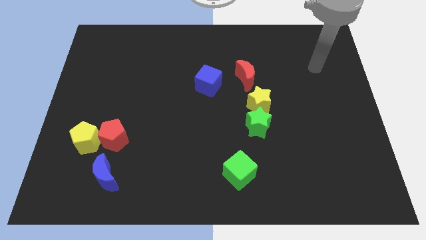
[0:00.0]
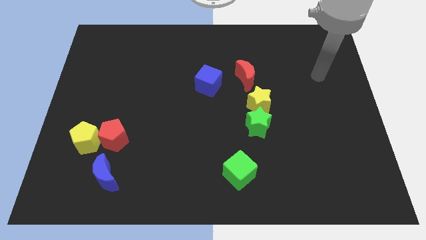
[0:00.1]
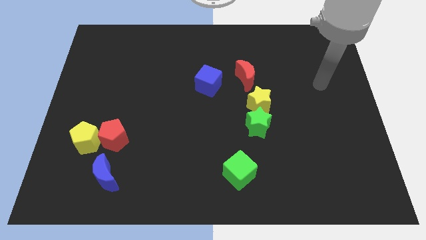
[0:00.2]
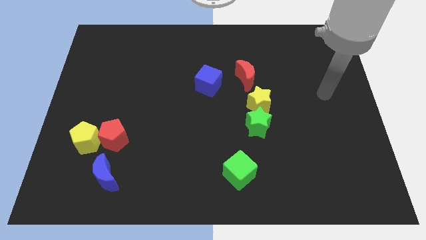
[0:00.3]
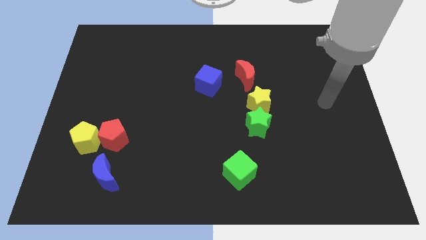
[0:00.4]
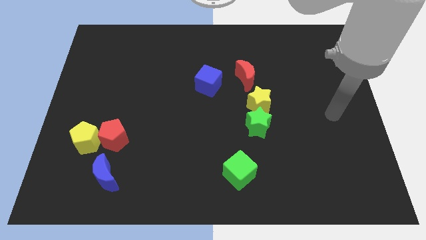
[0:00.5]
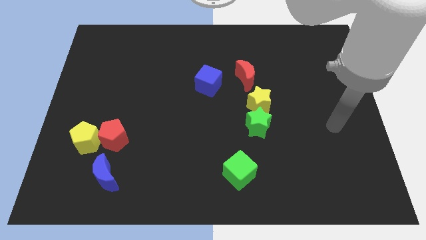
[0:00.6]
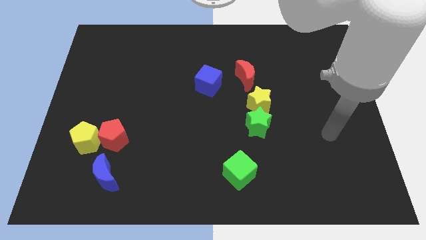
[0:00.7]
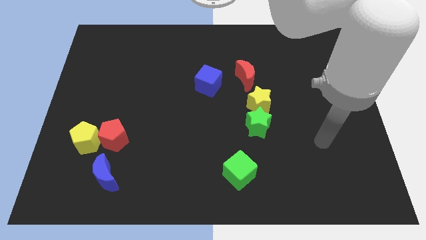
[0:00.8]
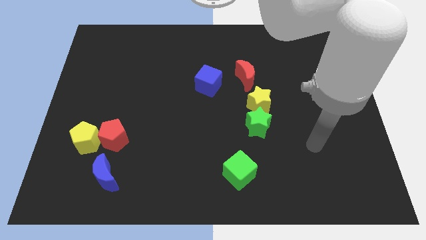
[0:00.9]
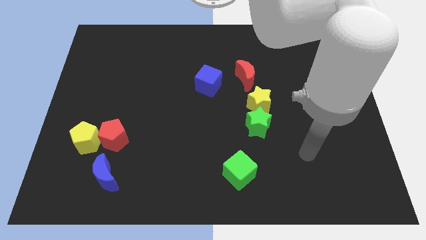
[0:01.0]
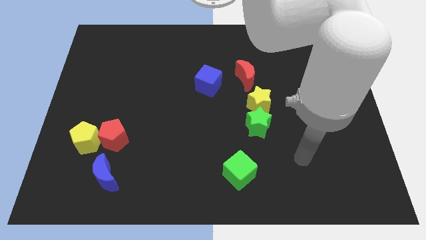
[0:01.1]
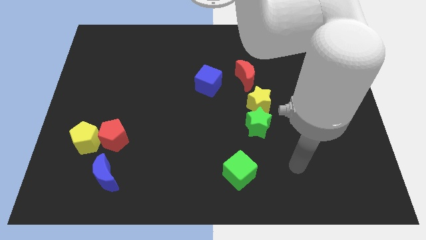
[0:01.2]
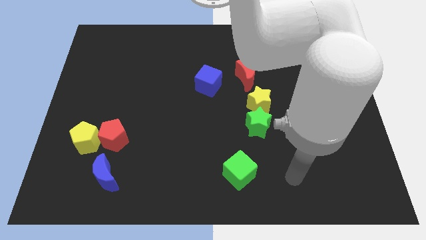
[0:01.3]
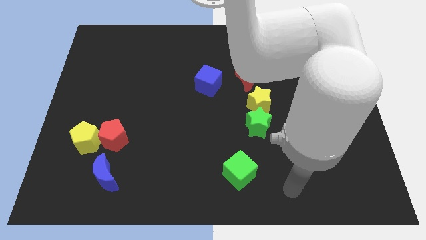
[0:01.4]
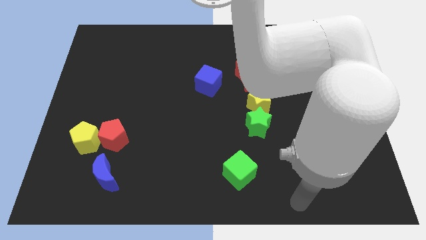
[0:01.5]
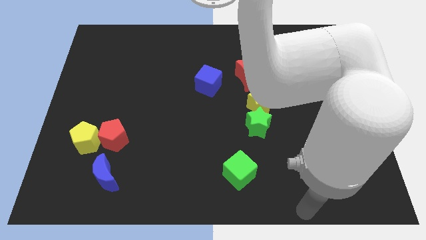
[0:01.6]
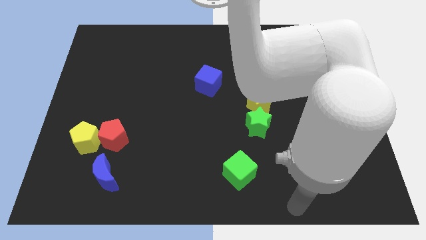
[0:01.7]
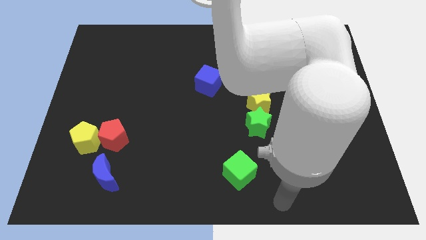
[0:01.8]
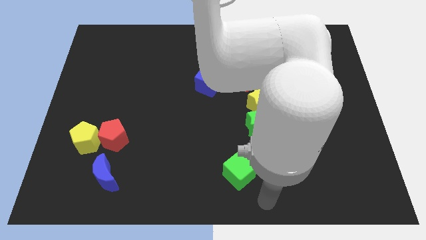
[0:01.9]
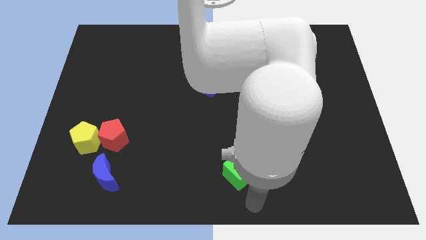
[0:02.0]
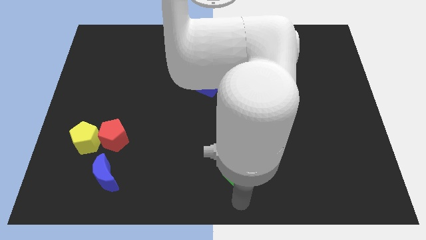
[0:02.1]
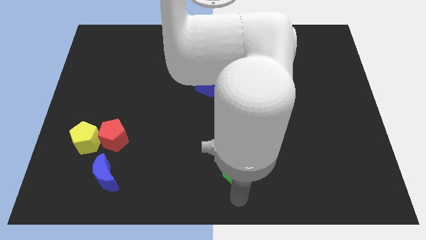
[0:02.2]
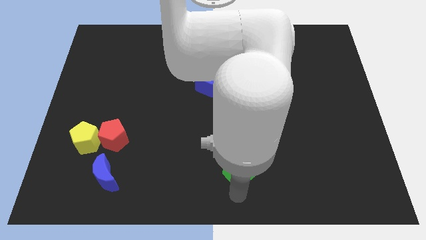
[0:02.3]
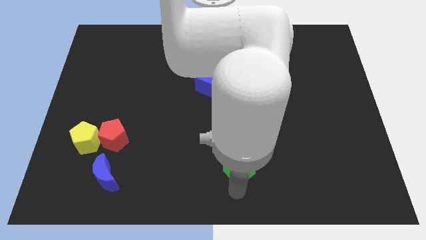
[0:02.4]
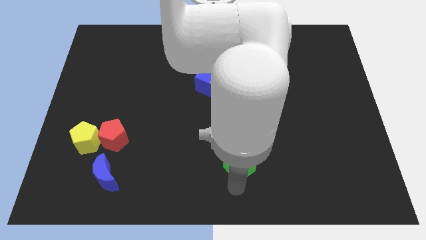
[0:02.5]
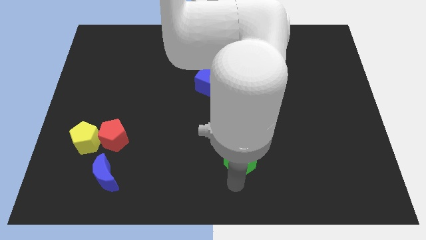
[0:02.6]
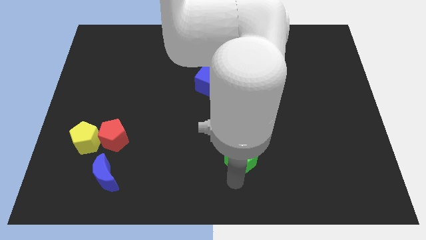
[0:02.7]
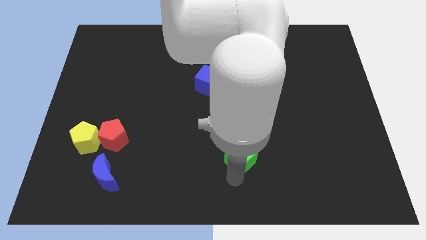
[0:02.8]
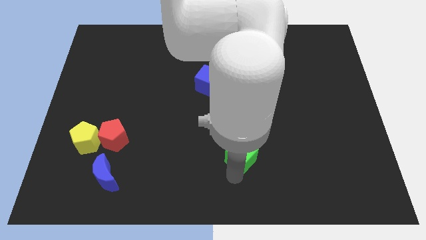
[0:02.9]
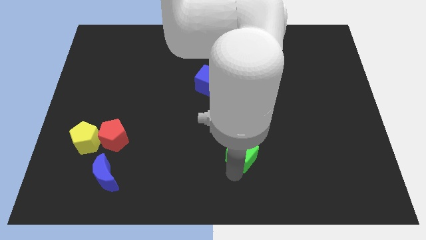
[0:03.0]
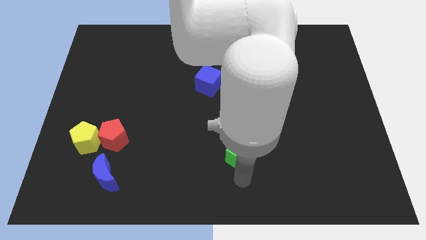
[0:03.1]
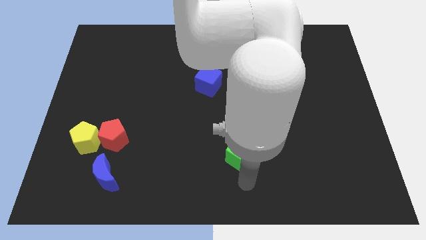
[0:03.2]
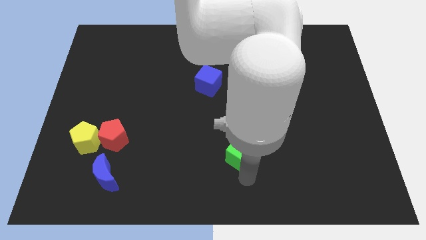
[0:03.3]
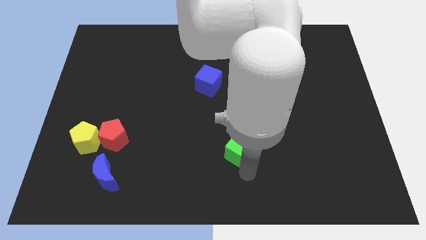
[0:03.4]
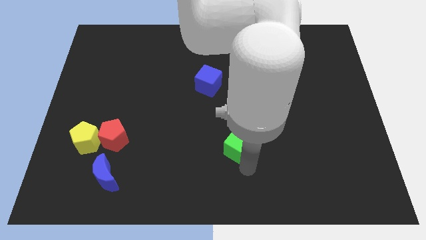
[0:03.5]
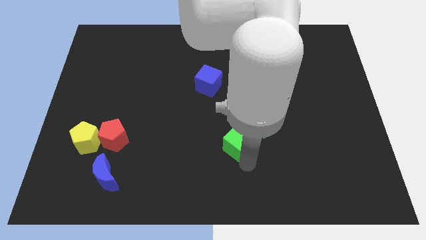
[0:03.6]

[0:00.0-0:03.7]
slide the green cube upwards slightly

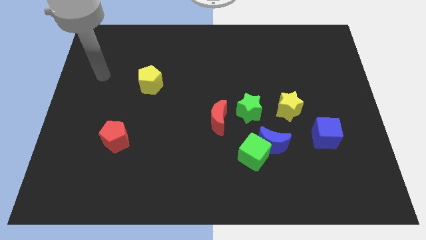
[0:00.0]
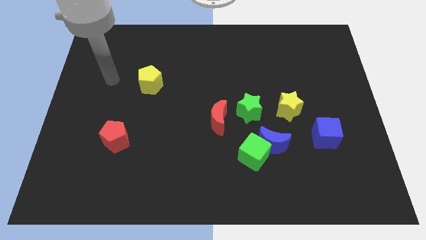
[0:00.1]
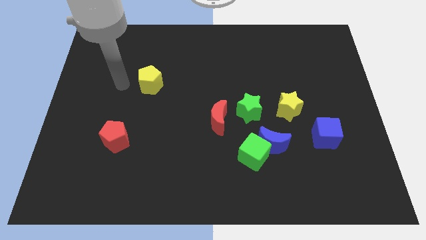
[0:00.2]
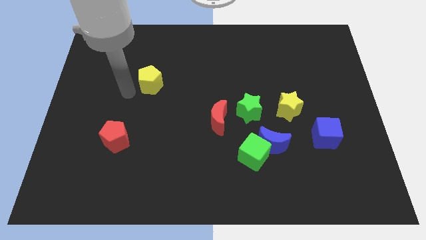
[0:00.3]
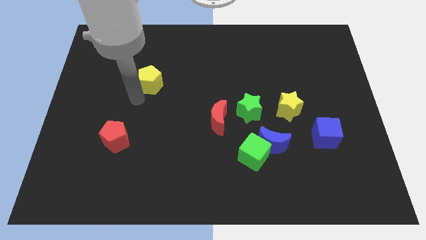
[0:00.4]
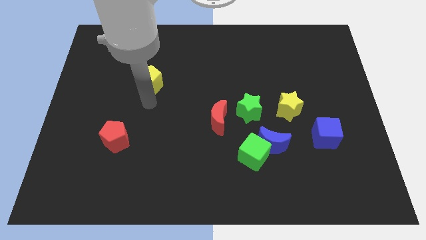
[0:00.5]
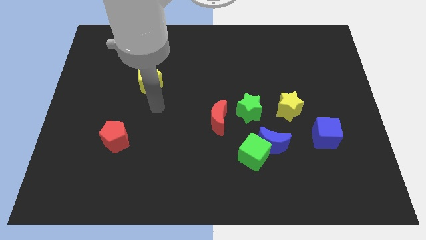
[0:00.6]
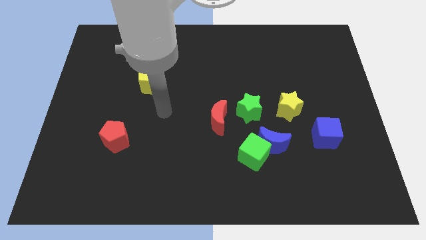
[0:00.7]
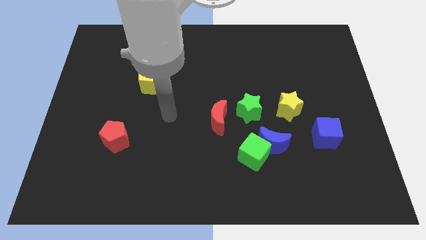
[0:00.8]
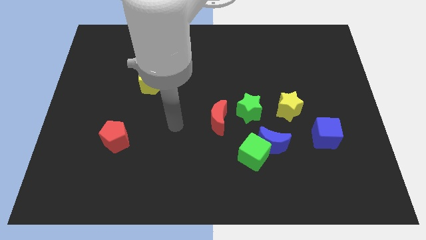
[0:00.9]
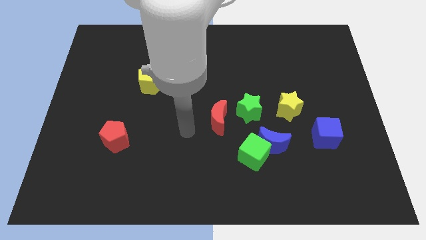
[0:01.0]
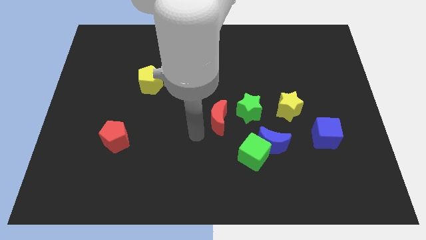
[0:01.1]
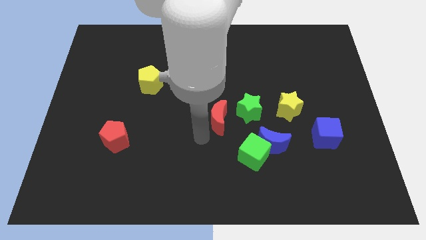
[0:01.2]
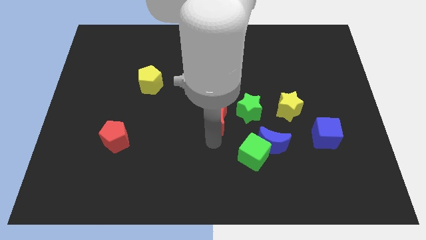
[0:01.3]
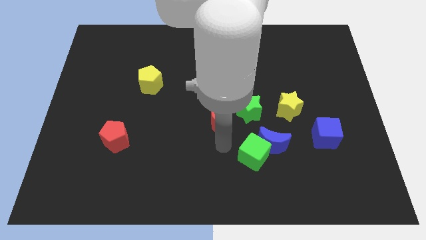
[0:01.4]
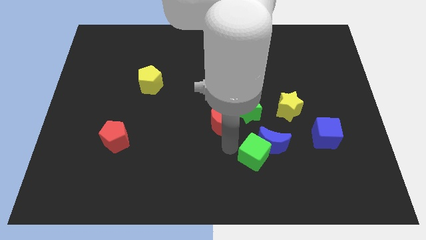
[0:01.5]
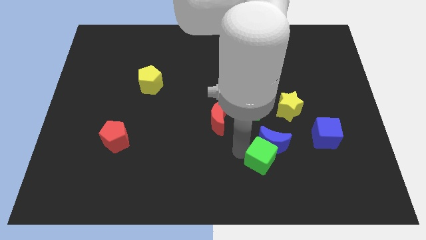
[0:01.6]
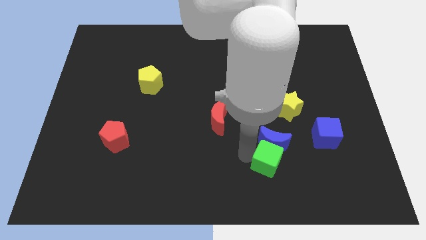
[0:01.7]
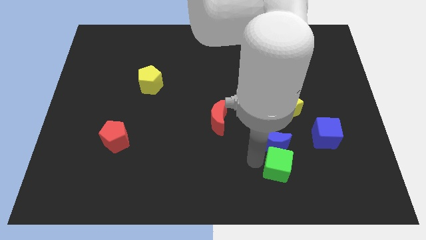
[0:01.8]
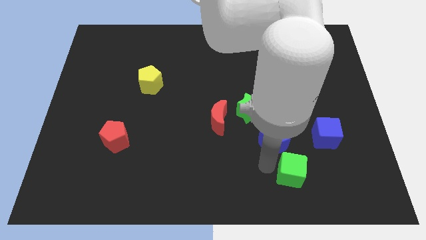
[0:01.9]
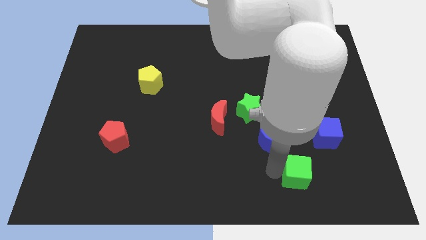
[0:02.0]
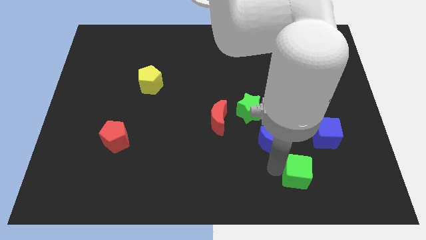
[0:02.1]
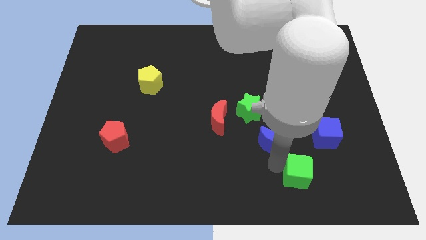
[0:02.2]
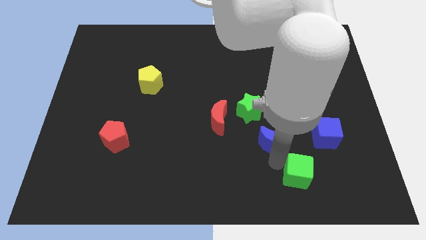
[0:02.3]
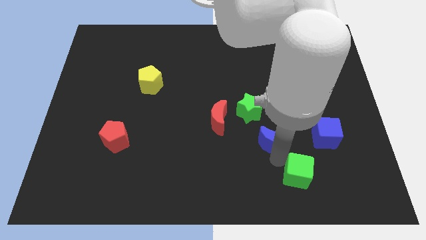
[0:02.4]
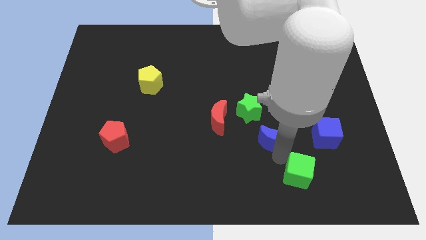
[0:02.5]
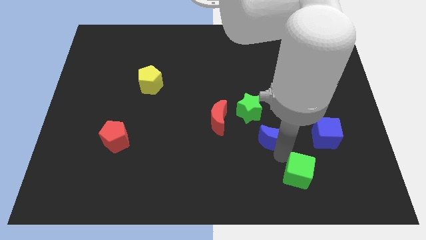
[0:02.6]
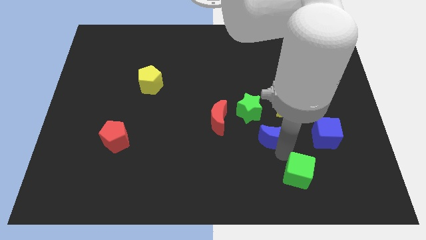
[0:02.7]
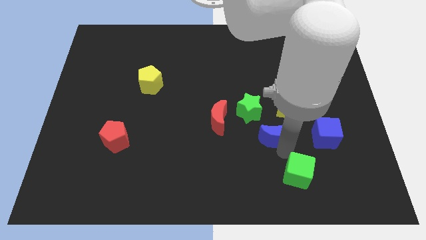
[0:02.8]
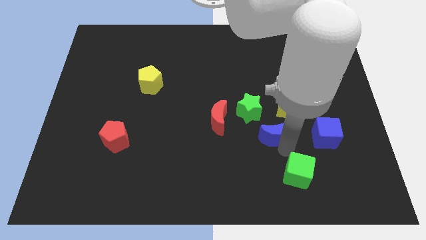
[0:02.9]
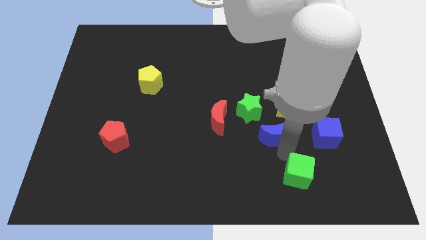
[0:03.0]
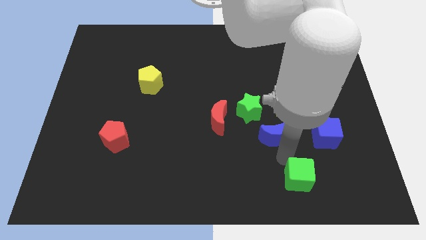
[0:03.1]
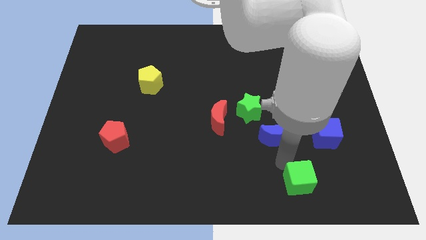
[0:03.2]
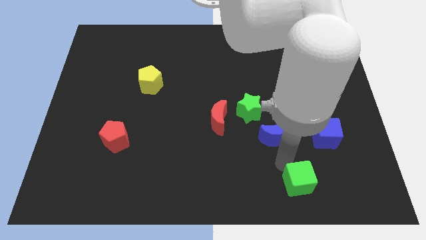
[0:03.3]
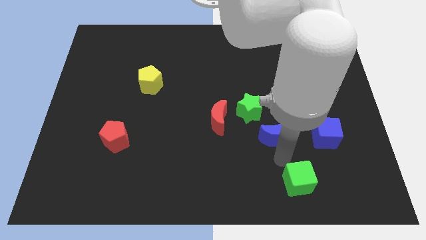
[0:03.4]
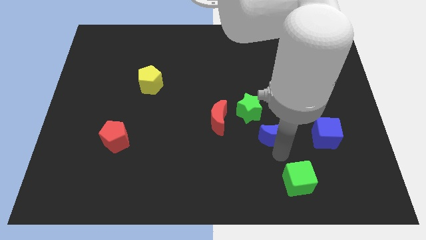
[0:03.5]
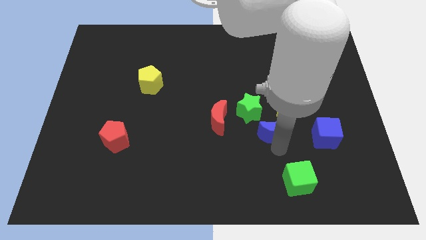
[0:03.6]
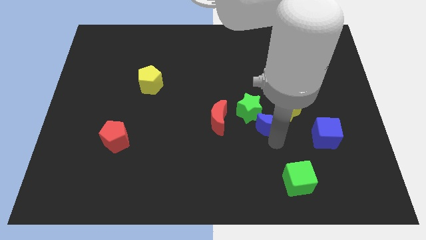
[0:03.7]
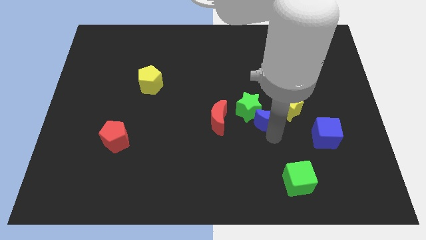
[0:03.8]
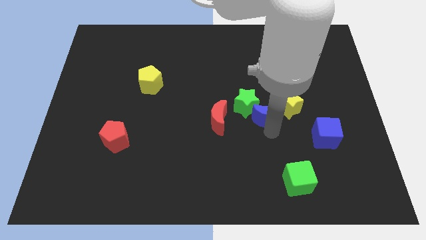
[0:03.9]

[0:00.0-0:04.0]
slightly push the blue moon up

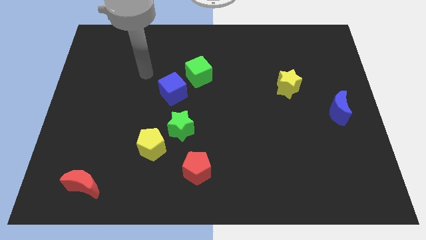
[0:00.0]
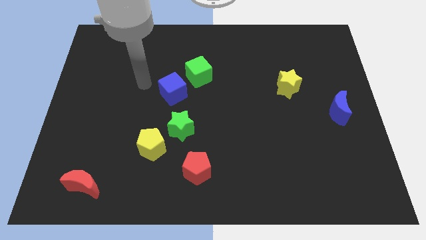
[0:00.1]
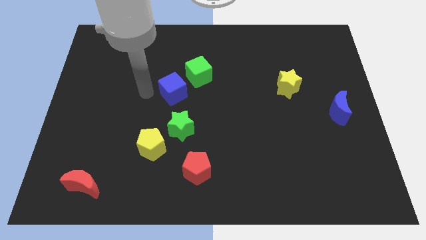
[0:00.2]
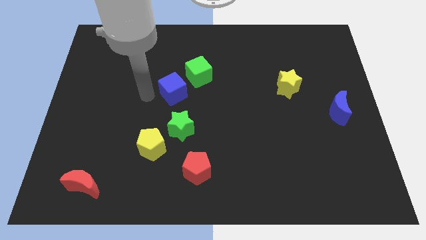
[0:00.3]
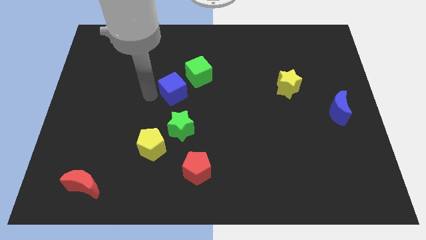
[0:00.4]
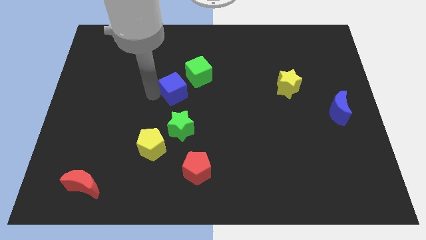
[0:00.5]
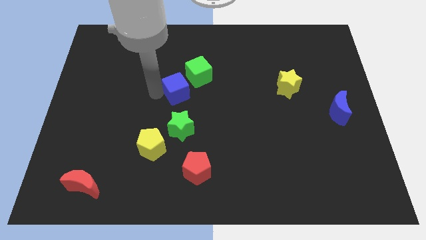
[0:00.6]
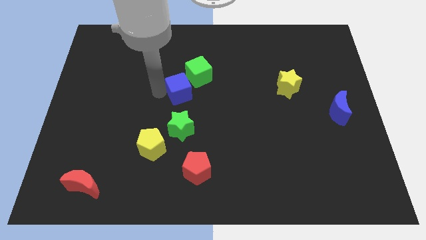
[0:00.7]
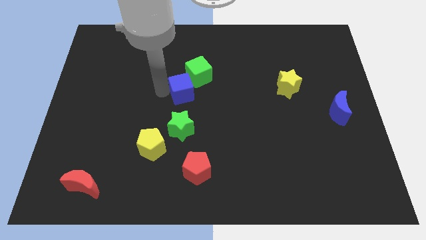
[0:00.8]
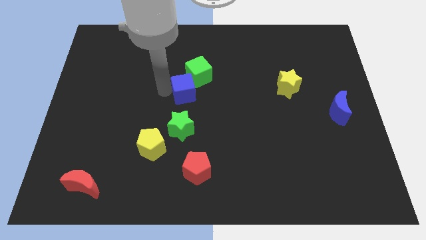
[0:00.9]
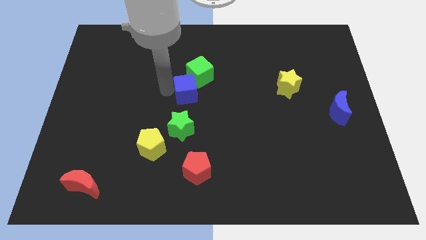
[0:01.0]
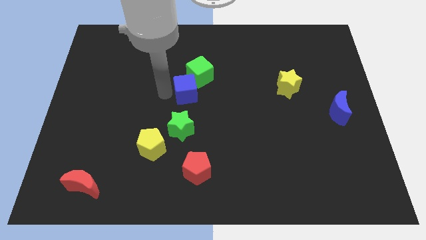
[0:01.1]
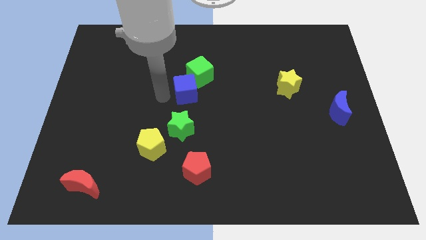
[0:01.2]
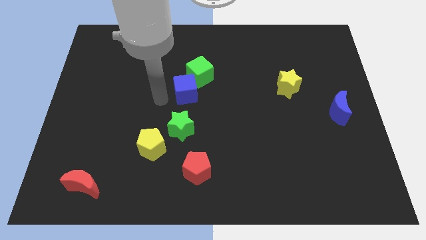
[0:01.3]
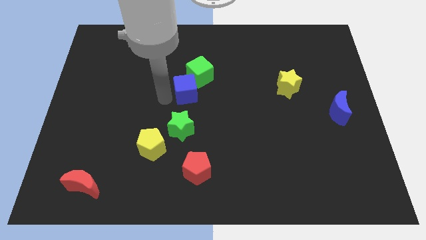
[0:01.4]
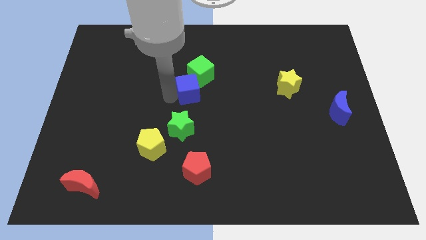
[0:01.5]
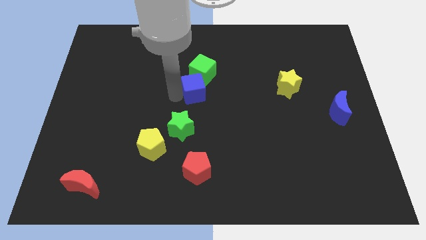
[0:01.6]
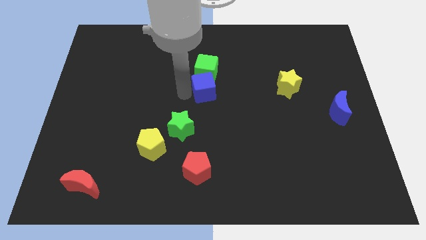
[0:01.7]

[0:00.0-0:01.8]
move the blue cube a bit right
